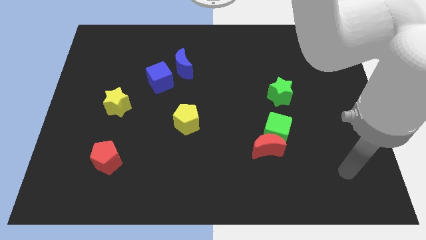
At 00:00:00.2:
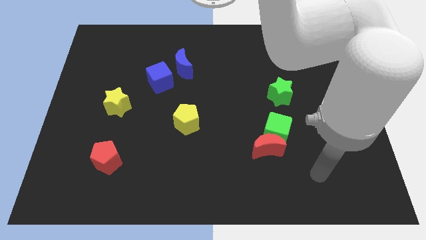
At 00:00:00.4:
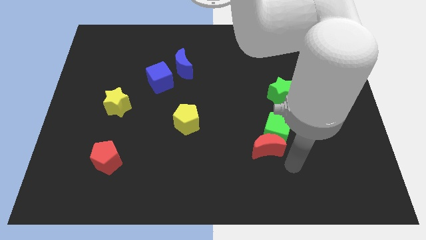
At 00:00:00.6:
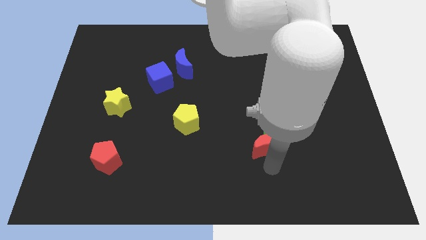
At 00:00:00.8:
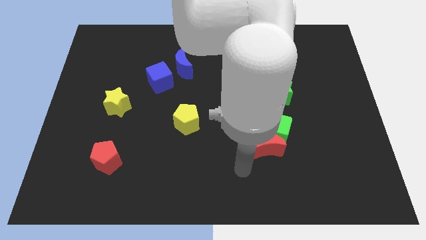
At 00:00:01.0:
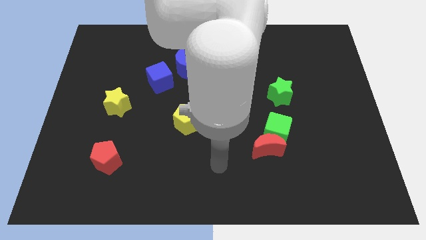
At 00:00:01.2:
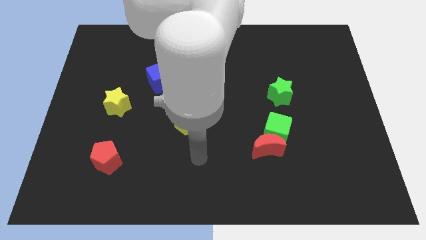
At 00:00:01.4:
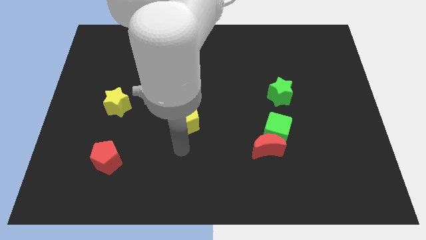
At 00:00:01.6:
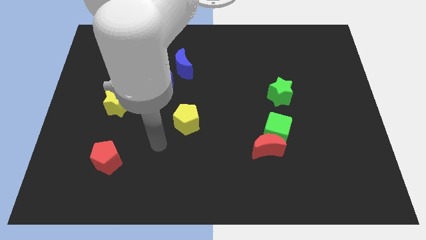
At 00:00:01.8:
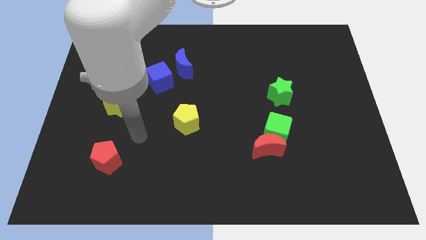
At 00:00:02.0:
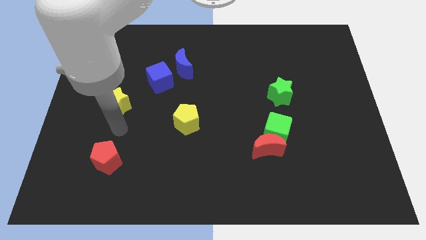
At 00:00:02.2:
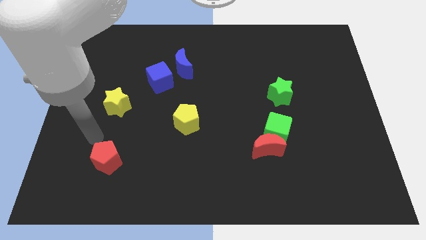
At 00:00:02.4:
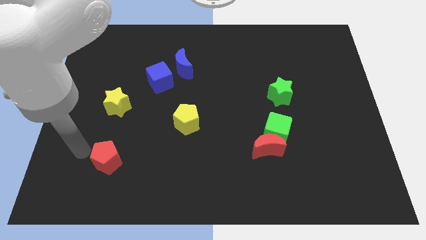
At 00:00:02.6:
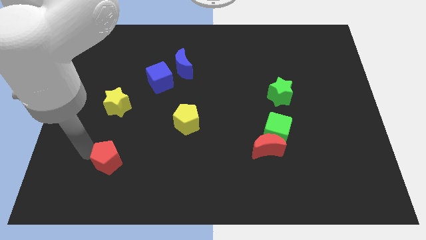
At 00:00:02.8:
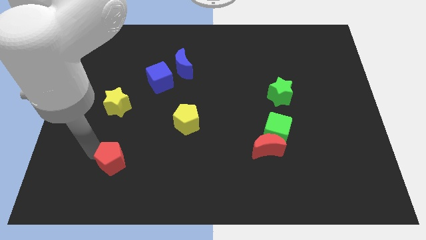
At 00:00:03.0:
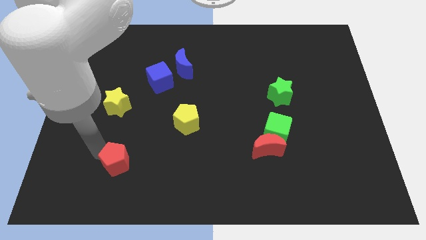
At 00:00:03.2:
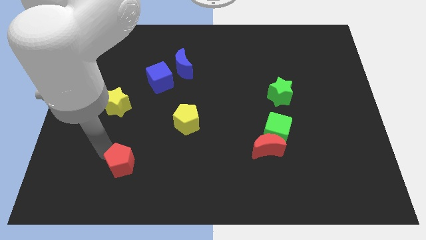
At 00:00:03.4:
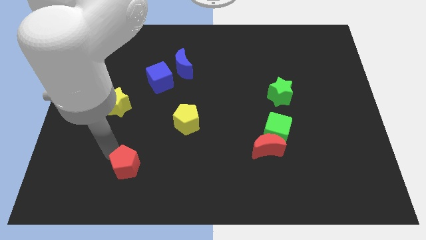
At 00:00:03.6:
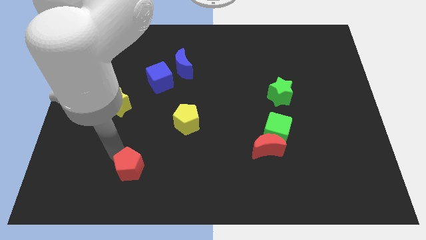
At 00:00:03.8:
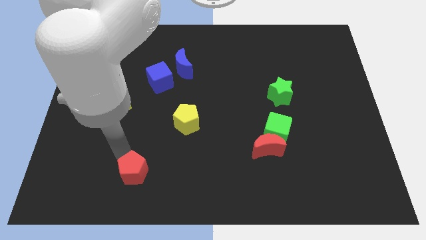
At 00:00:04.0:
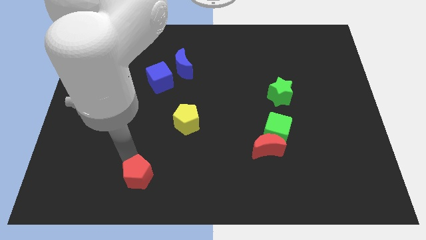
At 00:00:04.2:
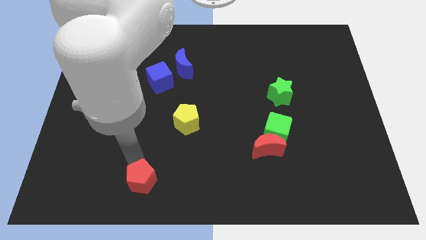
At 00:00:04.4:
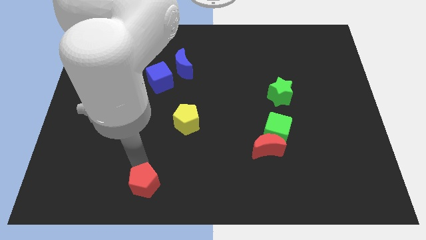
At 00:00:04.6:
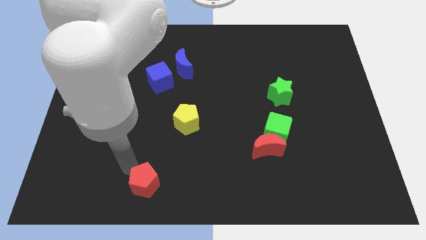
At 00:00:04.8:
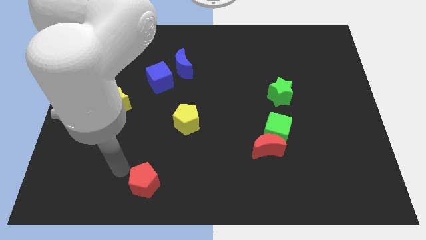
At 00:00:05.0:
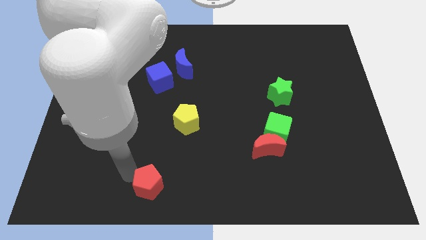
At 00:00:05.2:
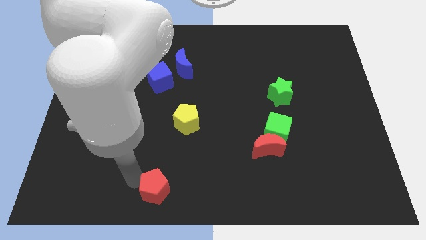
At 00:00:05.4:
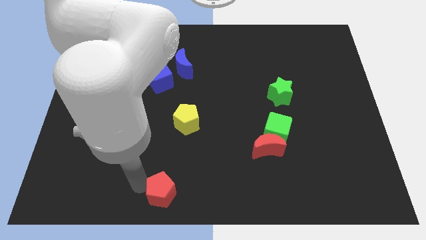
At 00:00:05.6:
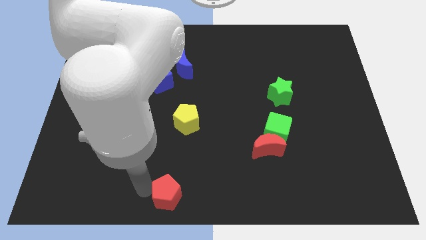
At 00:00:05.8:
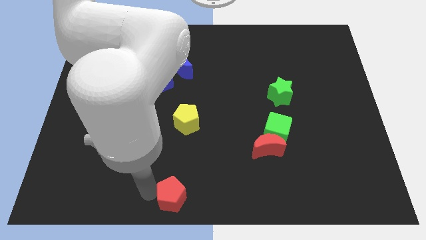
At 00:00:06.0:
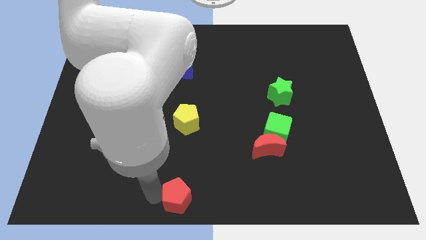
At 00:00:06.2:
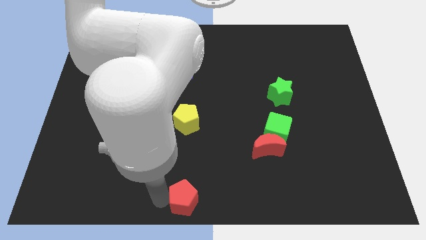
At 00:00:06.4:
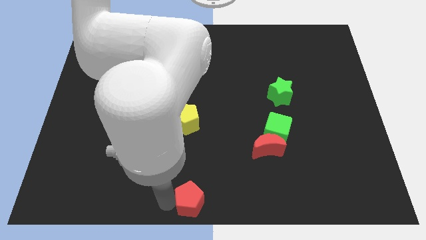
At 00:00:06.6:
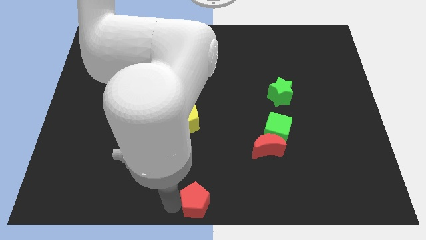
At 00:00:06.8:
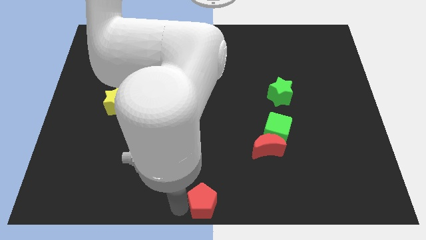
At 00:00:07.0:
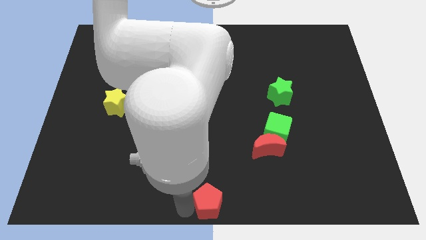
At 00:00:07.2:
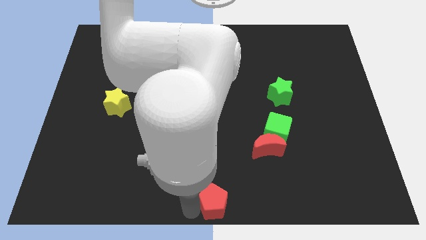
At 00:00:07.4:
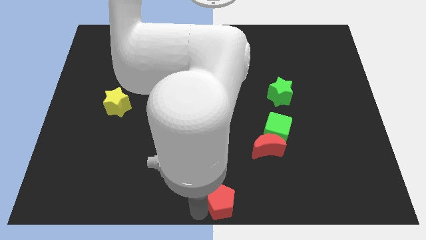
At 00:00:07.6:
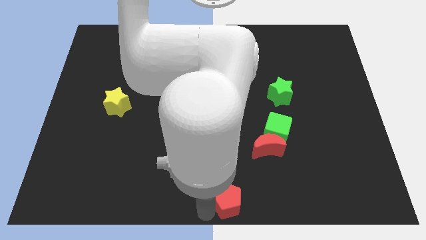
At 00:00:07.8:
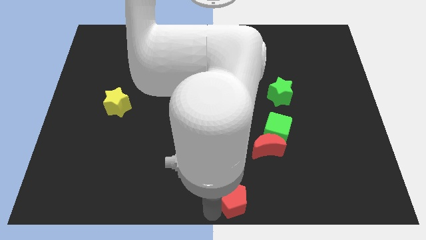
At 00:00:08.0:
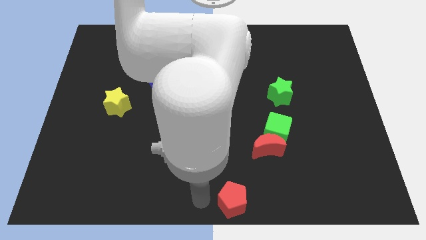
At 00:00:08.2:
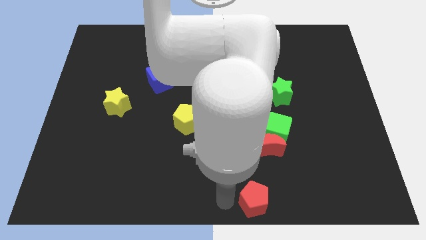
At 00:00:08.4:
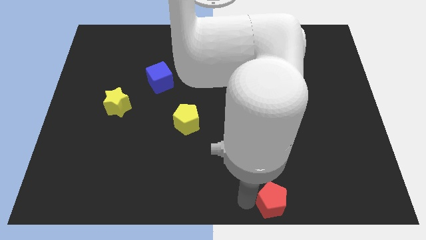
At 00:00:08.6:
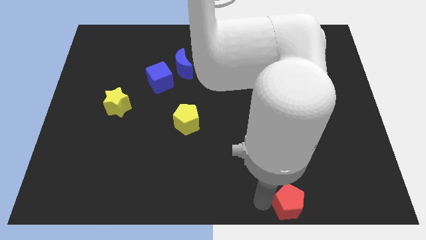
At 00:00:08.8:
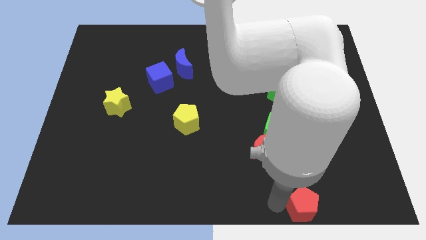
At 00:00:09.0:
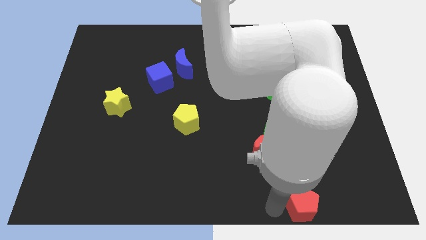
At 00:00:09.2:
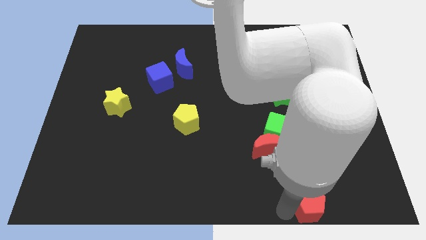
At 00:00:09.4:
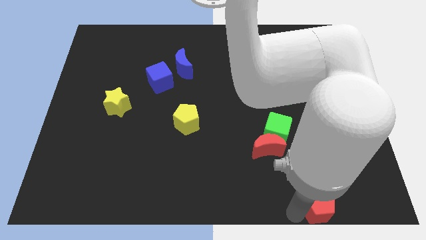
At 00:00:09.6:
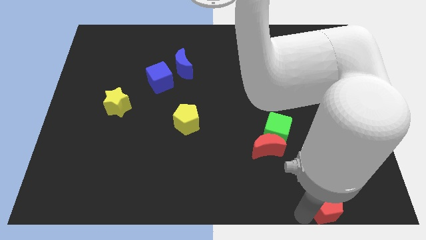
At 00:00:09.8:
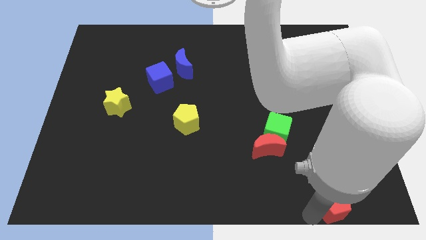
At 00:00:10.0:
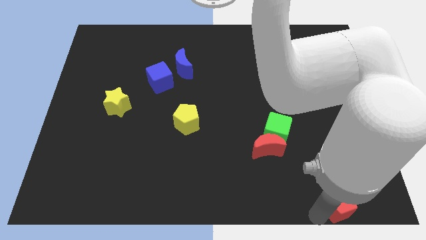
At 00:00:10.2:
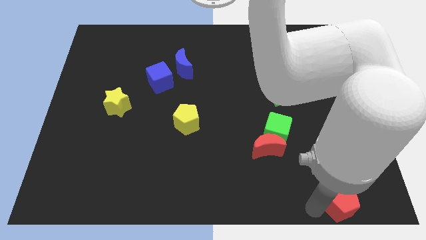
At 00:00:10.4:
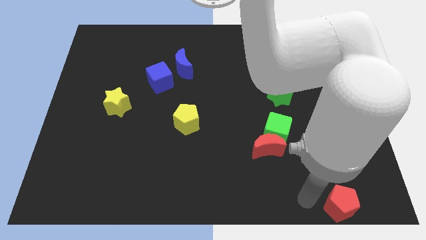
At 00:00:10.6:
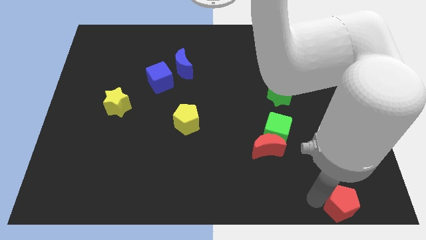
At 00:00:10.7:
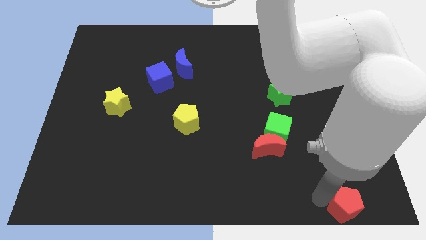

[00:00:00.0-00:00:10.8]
slide the red pentagon to the lower right corner

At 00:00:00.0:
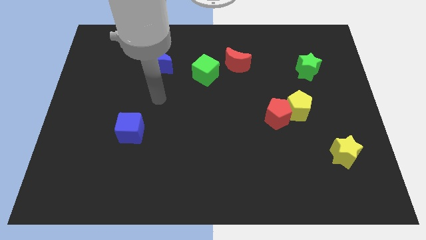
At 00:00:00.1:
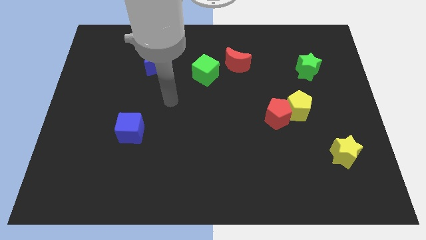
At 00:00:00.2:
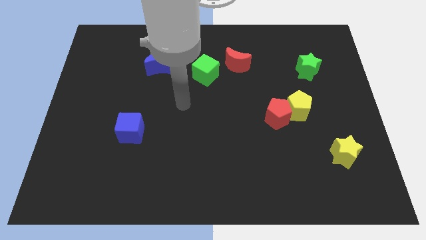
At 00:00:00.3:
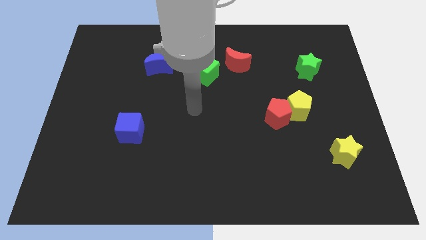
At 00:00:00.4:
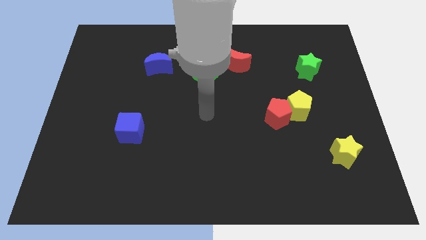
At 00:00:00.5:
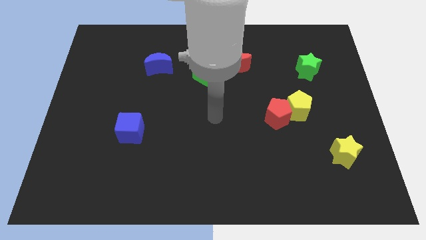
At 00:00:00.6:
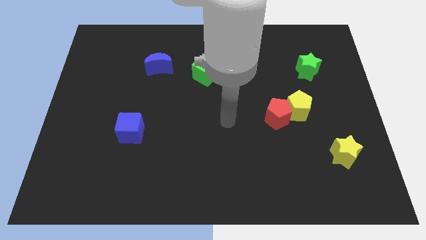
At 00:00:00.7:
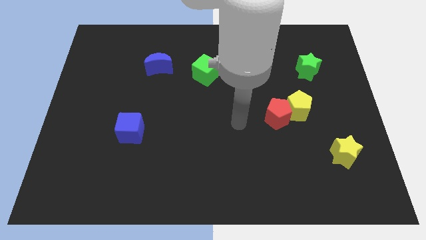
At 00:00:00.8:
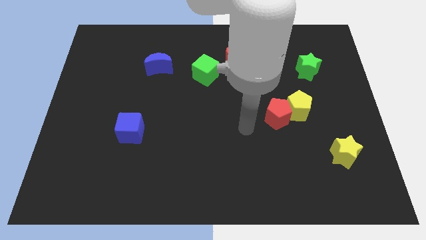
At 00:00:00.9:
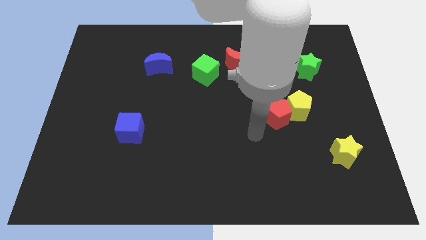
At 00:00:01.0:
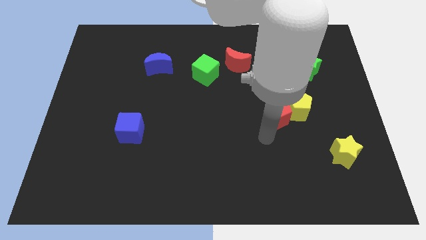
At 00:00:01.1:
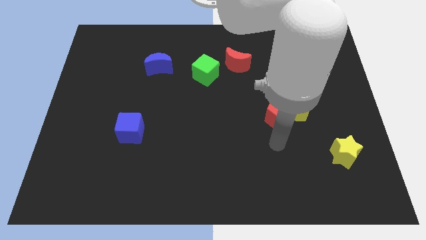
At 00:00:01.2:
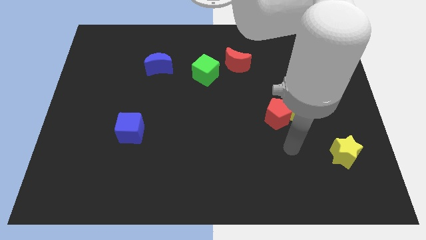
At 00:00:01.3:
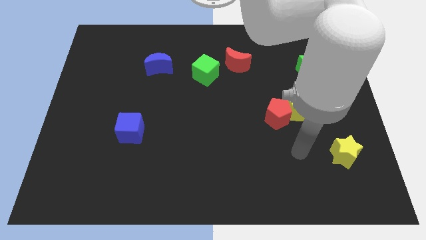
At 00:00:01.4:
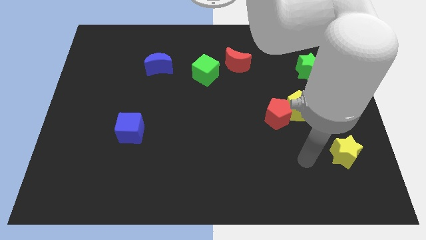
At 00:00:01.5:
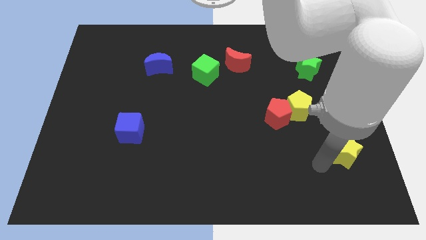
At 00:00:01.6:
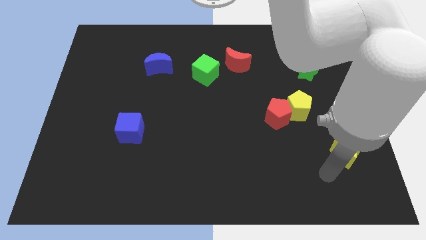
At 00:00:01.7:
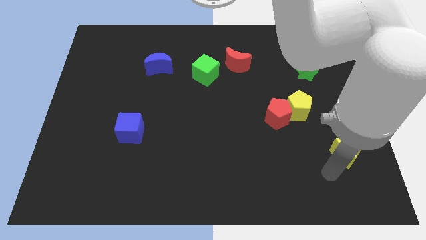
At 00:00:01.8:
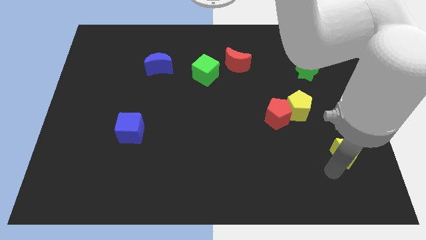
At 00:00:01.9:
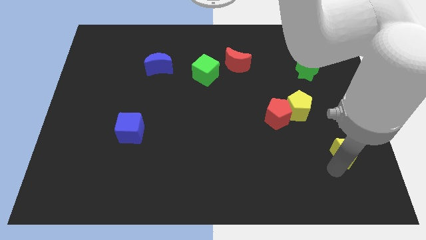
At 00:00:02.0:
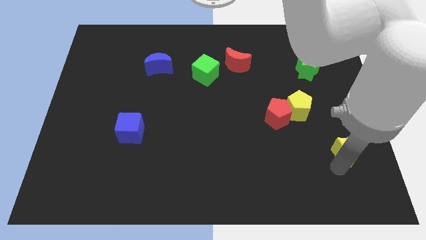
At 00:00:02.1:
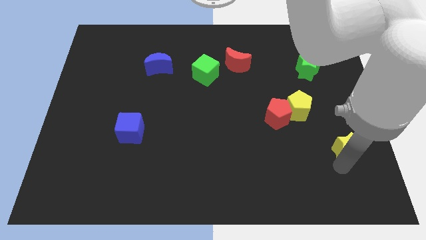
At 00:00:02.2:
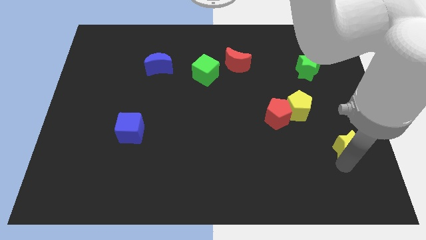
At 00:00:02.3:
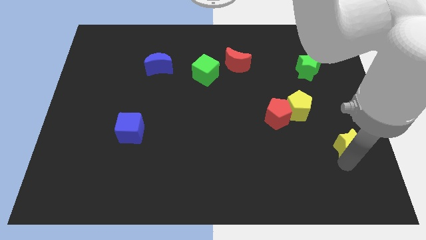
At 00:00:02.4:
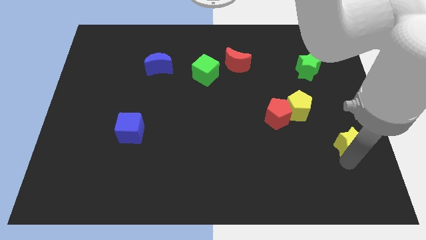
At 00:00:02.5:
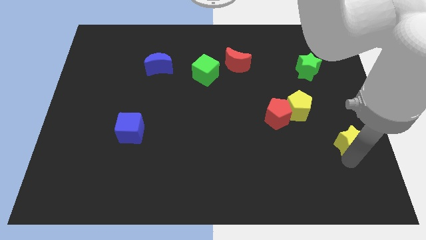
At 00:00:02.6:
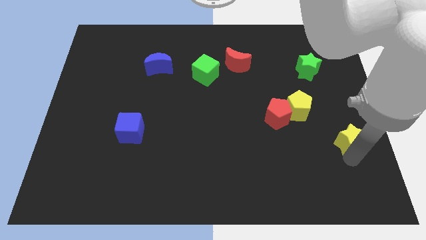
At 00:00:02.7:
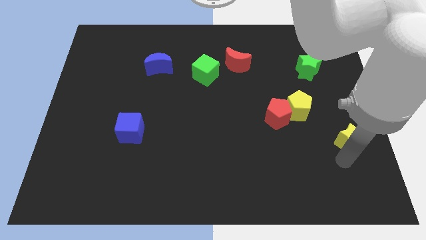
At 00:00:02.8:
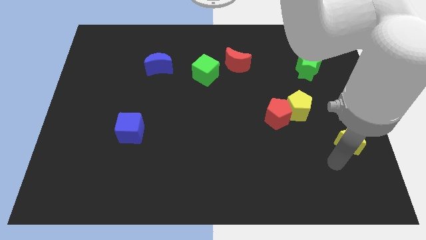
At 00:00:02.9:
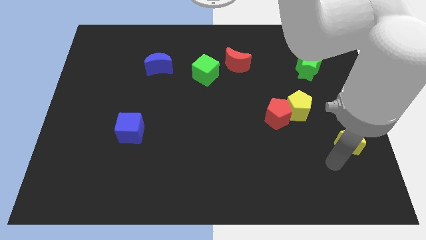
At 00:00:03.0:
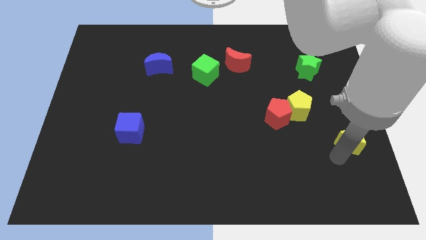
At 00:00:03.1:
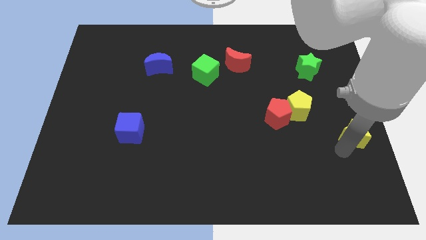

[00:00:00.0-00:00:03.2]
put the yellow star to the right side
